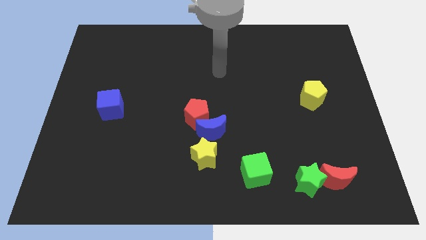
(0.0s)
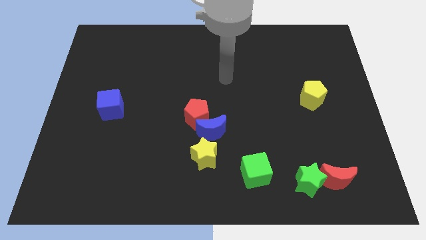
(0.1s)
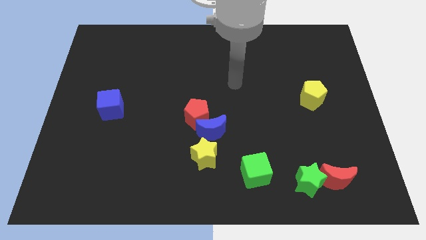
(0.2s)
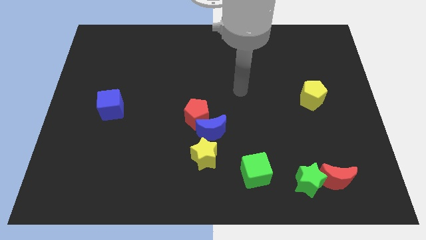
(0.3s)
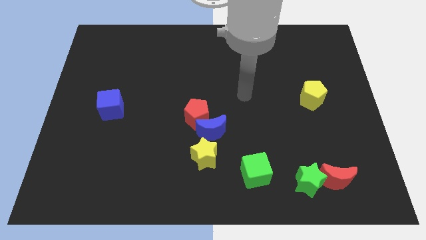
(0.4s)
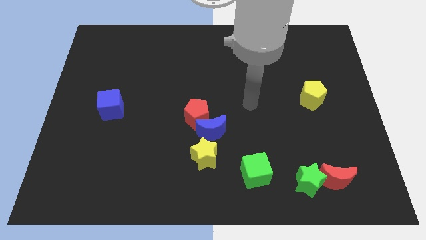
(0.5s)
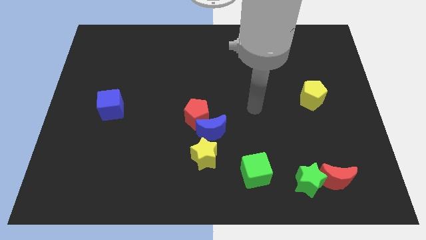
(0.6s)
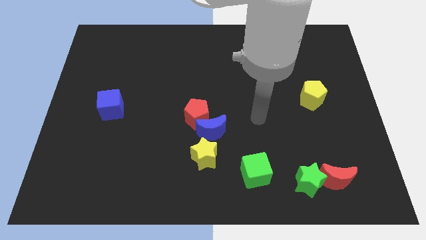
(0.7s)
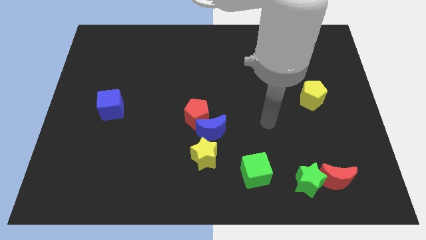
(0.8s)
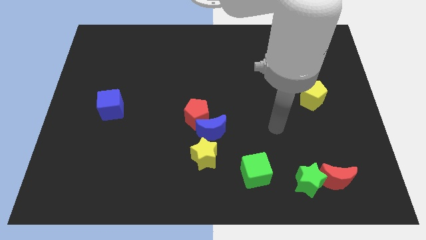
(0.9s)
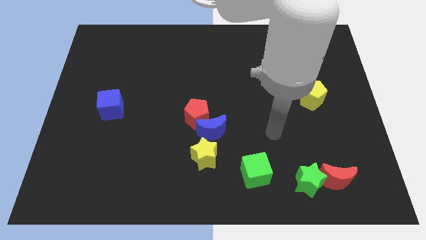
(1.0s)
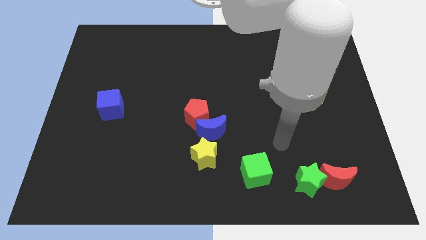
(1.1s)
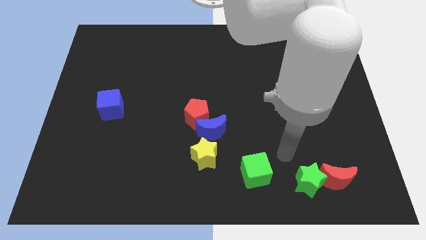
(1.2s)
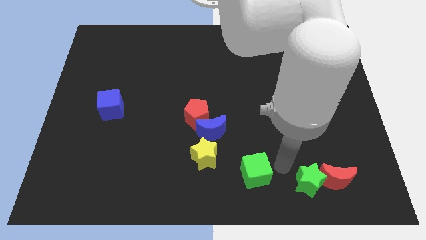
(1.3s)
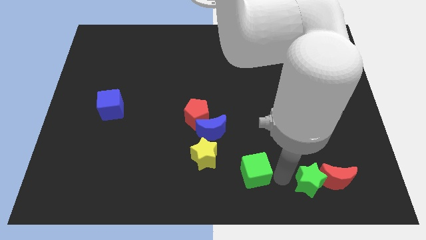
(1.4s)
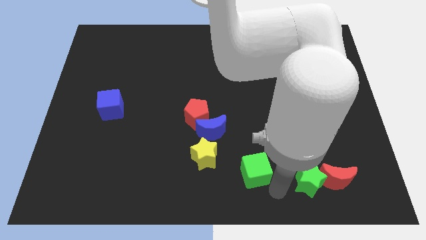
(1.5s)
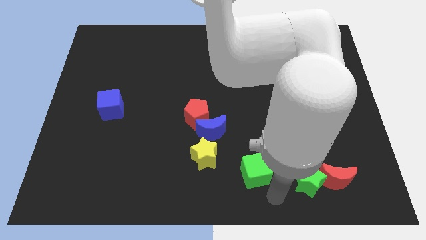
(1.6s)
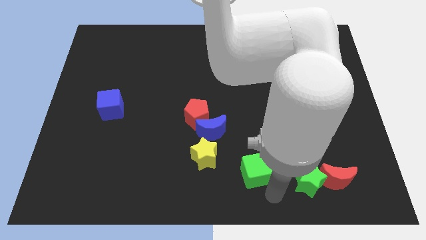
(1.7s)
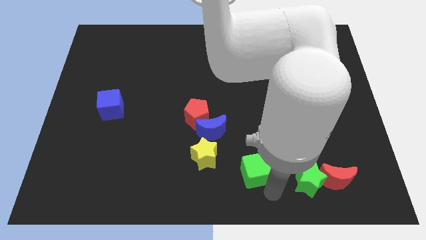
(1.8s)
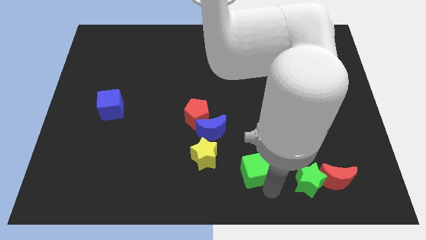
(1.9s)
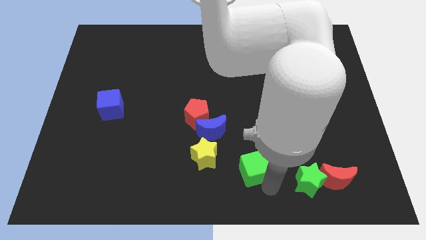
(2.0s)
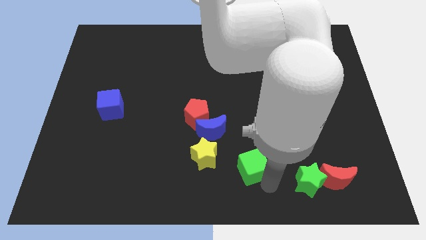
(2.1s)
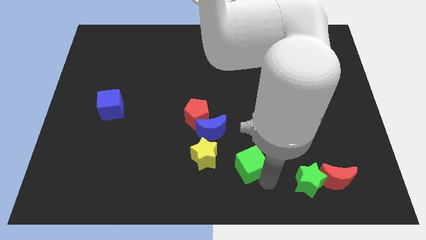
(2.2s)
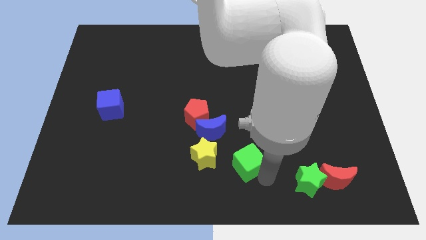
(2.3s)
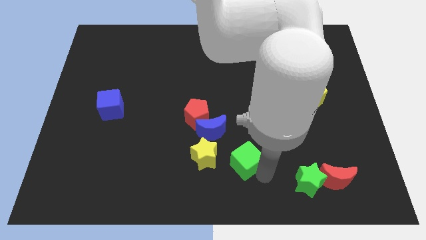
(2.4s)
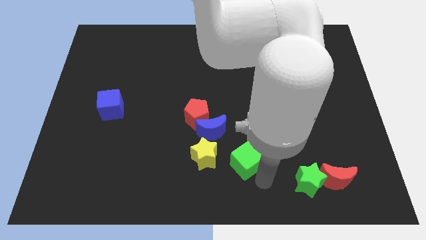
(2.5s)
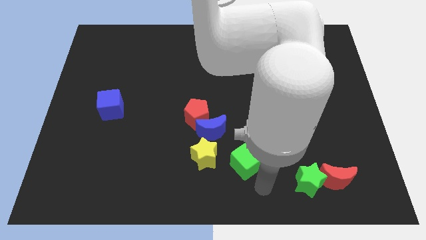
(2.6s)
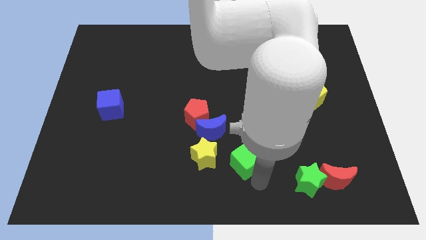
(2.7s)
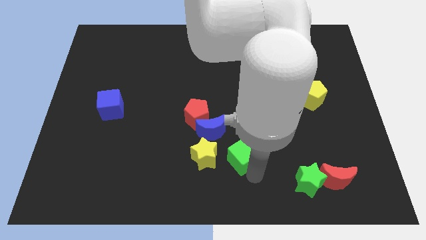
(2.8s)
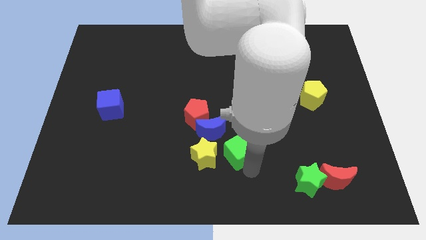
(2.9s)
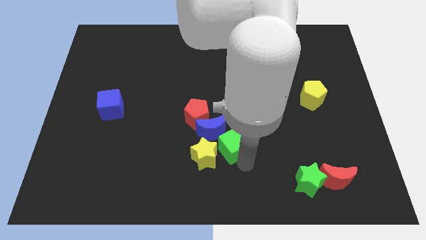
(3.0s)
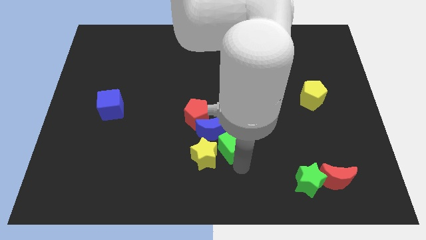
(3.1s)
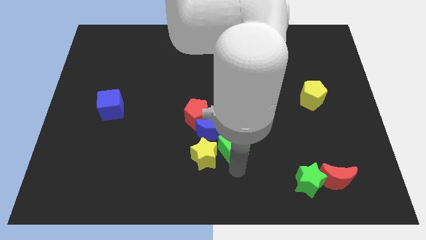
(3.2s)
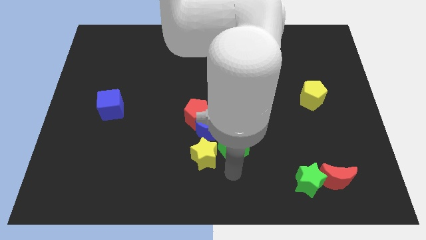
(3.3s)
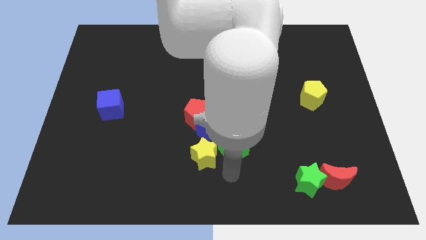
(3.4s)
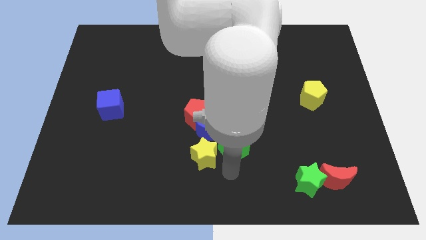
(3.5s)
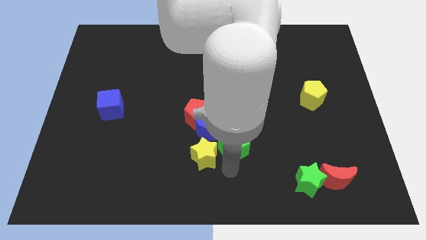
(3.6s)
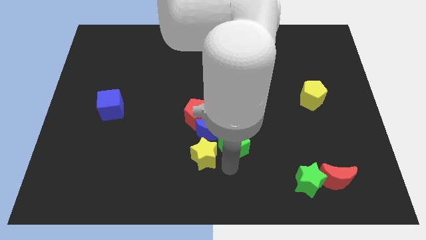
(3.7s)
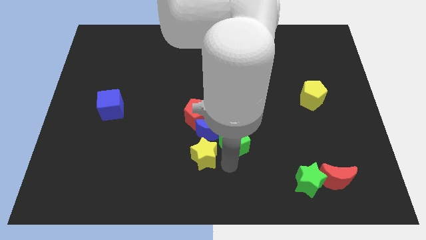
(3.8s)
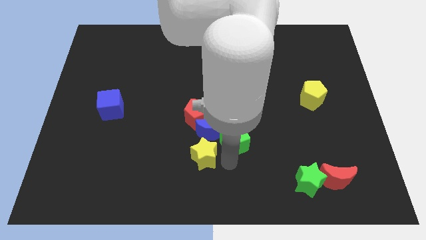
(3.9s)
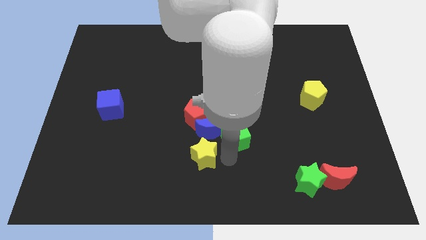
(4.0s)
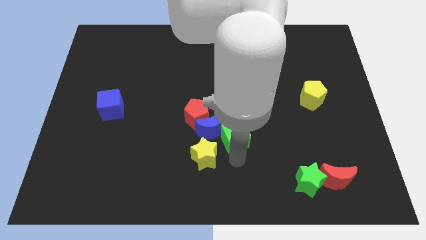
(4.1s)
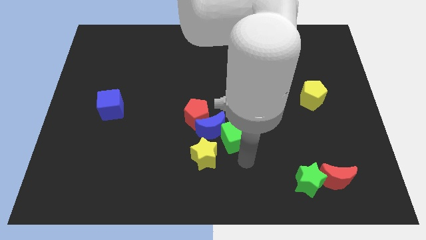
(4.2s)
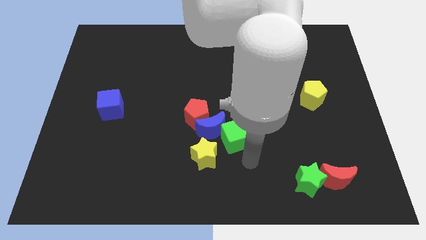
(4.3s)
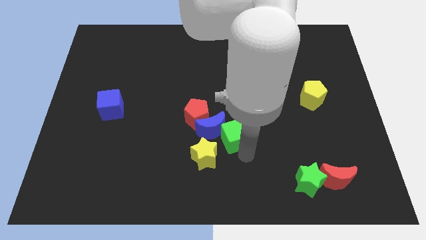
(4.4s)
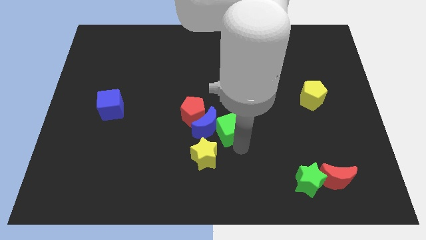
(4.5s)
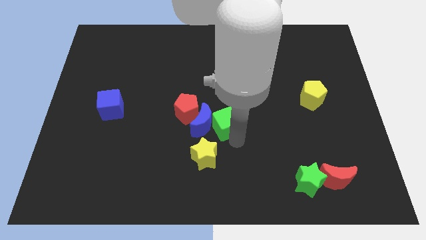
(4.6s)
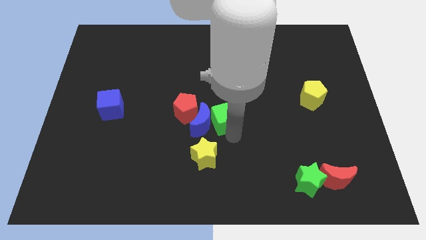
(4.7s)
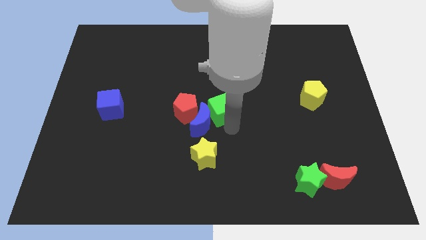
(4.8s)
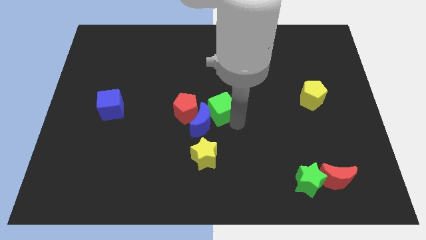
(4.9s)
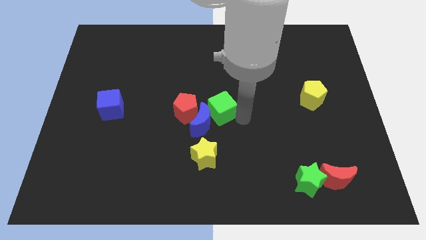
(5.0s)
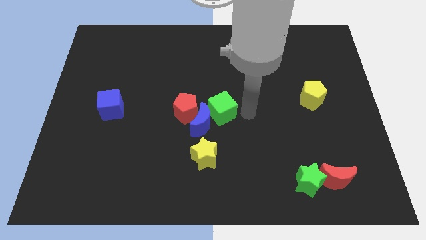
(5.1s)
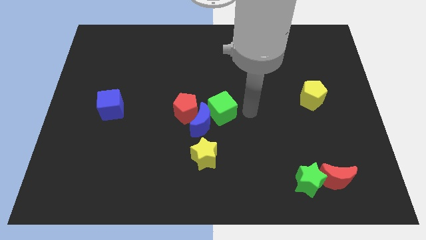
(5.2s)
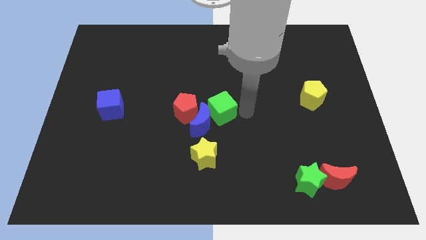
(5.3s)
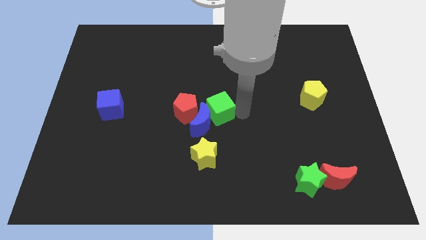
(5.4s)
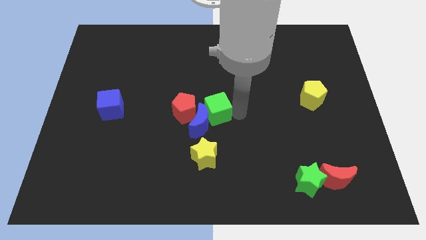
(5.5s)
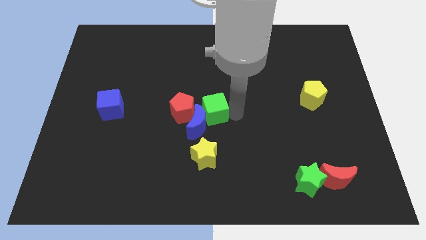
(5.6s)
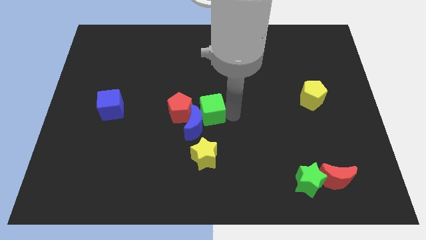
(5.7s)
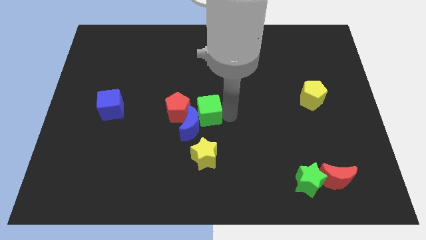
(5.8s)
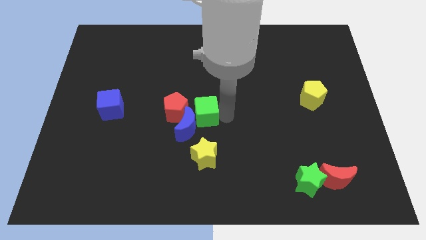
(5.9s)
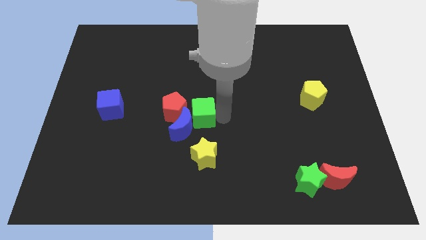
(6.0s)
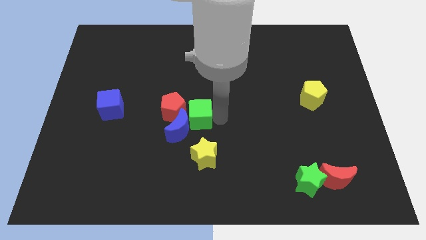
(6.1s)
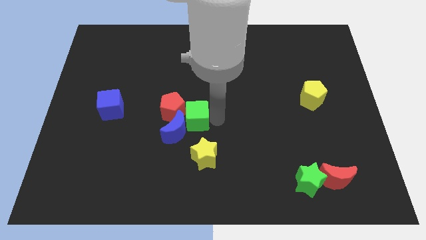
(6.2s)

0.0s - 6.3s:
slide the green cube close to the red pentagon

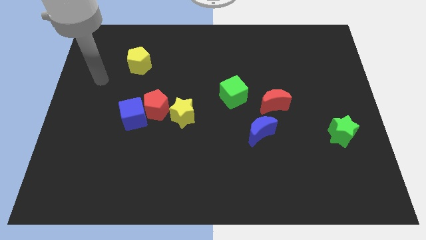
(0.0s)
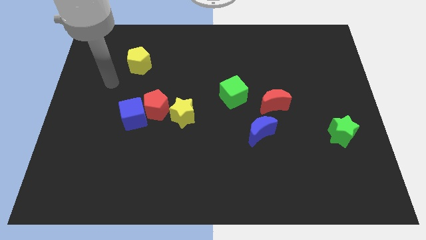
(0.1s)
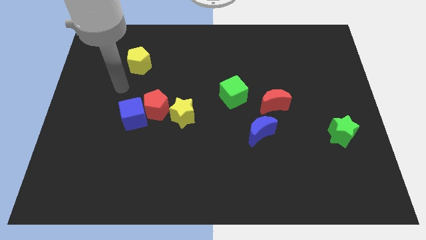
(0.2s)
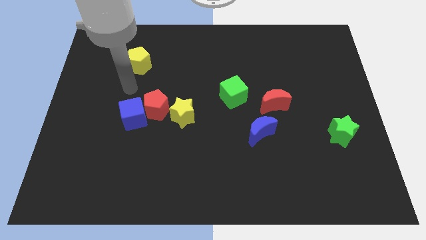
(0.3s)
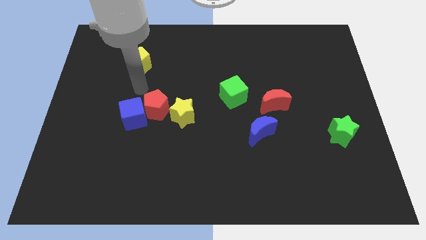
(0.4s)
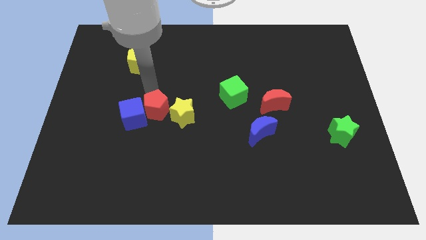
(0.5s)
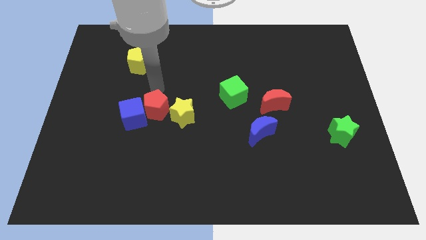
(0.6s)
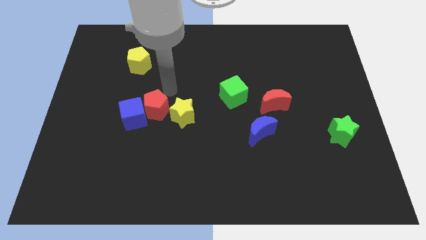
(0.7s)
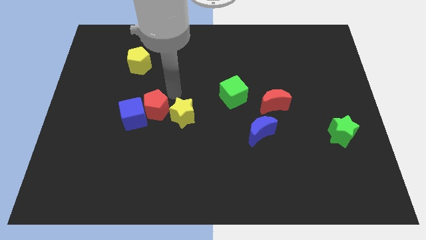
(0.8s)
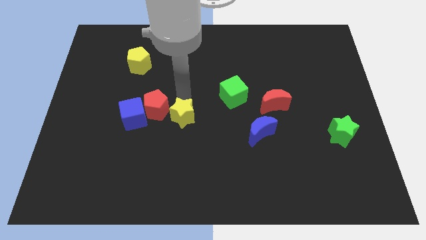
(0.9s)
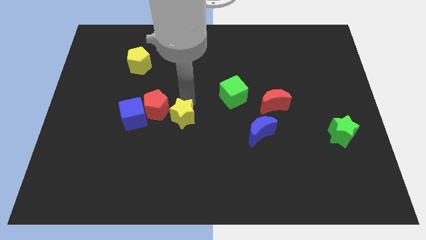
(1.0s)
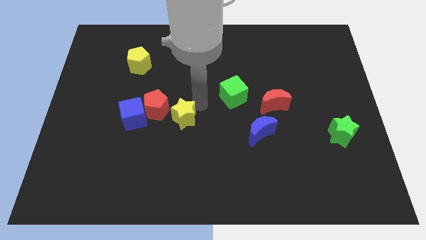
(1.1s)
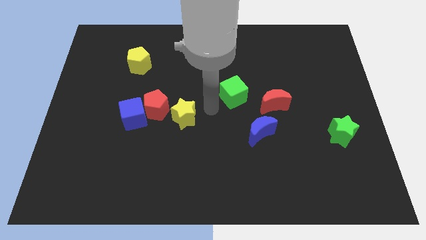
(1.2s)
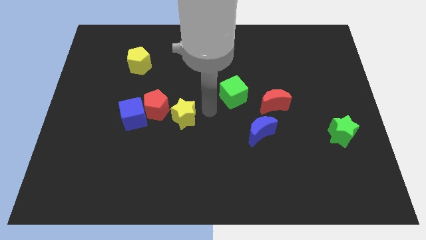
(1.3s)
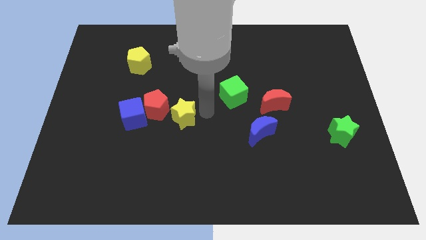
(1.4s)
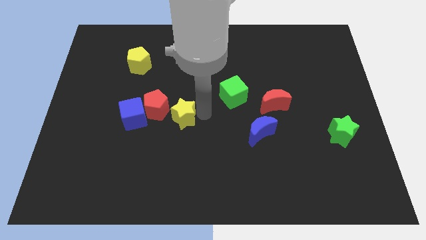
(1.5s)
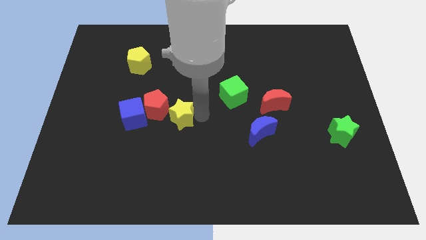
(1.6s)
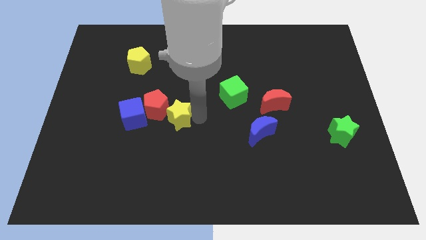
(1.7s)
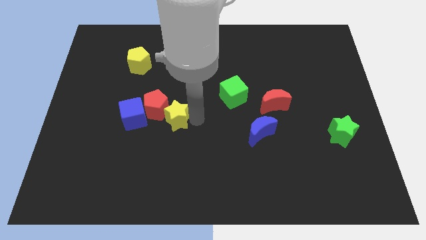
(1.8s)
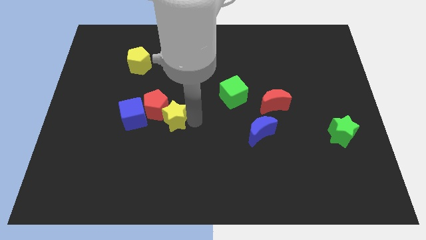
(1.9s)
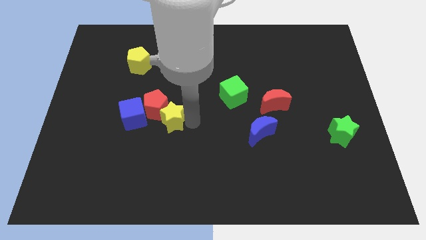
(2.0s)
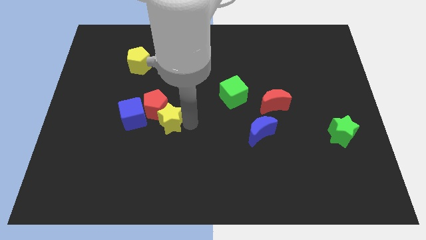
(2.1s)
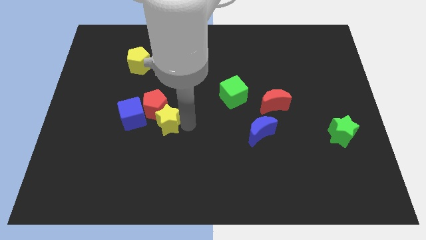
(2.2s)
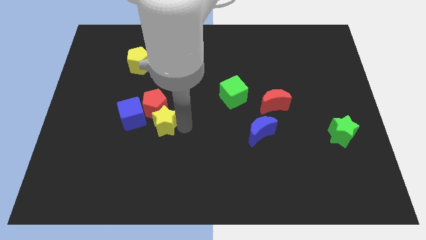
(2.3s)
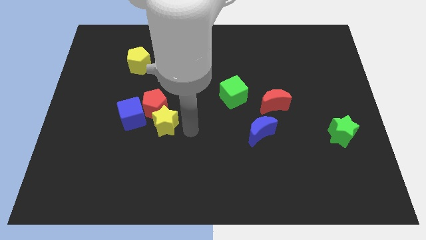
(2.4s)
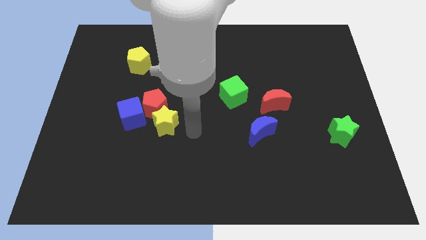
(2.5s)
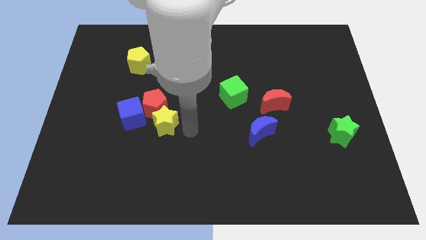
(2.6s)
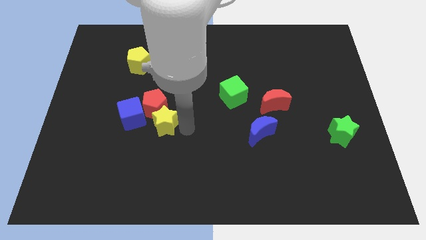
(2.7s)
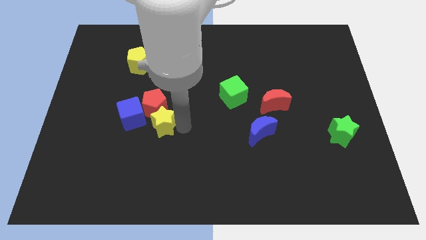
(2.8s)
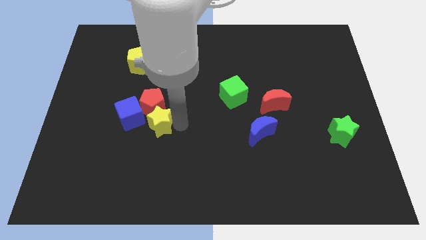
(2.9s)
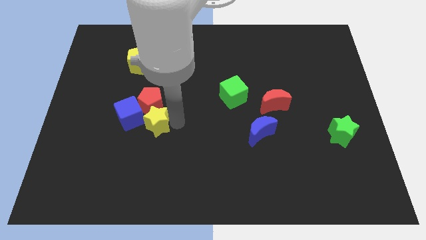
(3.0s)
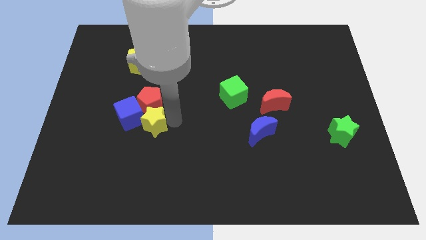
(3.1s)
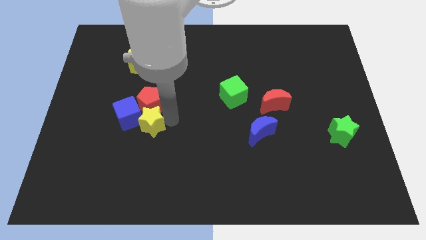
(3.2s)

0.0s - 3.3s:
push the yellow star next to the blue cube
